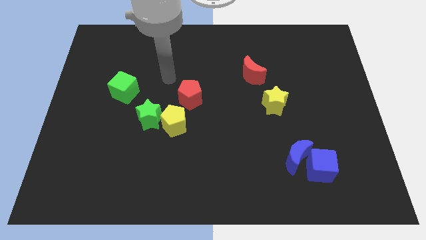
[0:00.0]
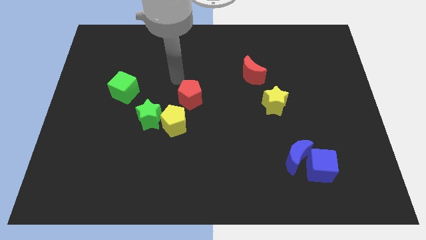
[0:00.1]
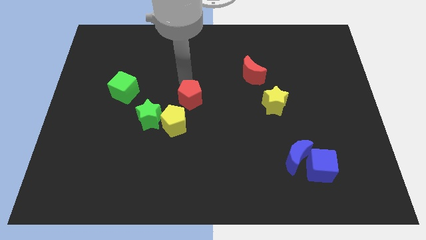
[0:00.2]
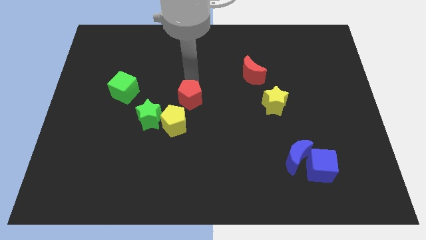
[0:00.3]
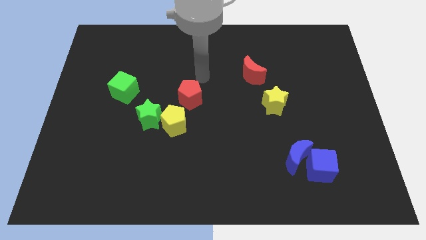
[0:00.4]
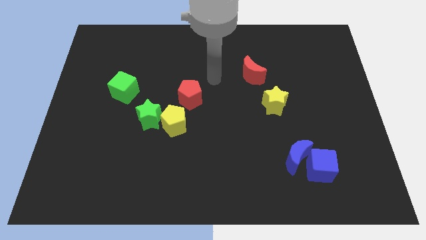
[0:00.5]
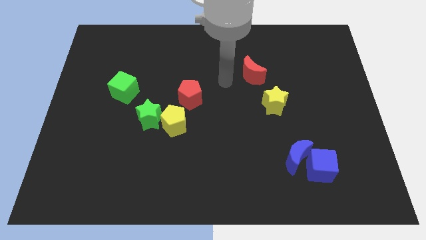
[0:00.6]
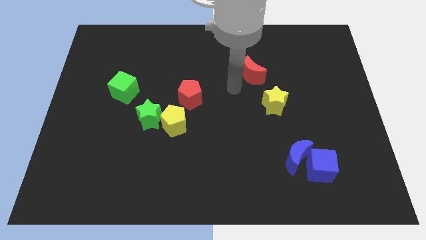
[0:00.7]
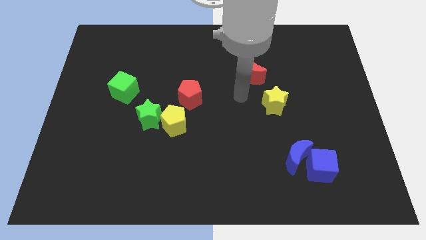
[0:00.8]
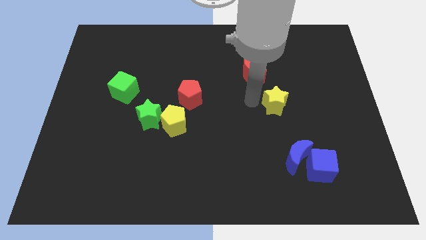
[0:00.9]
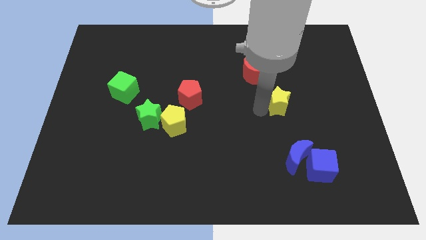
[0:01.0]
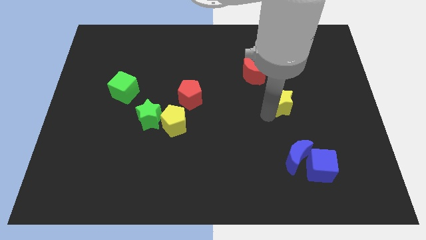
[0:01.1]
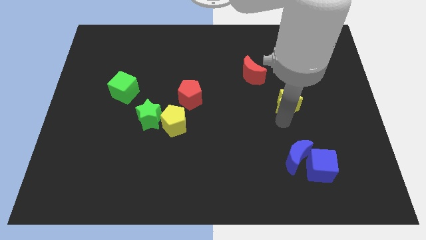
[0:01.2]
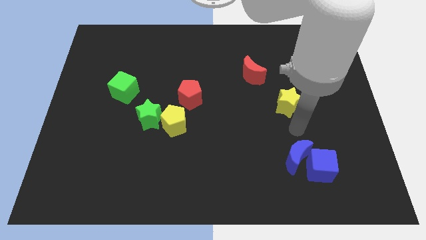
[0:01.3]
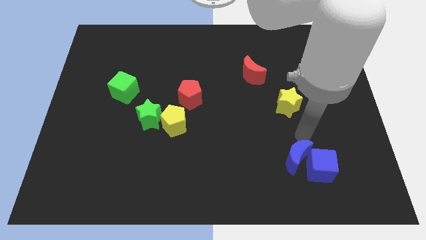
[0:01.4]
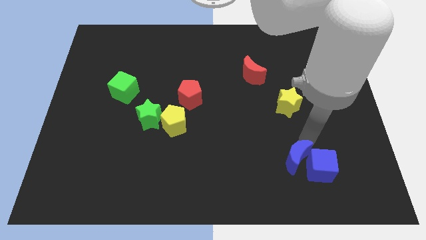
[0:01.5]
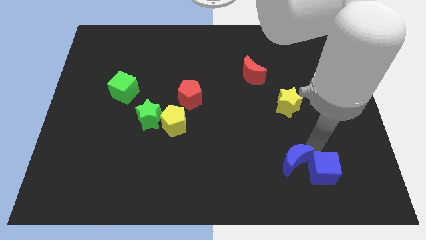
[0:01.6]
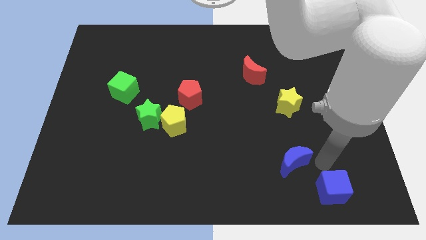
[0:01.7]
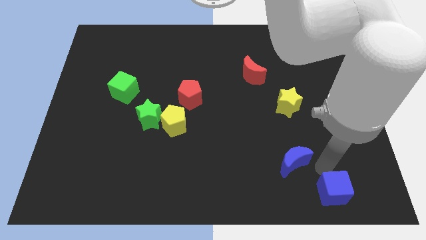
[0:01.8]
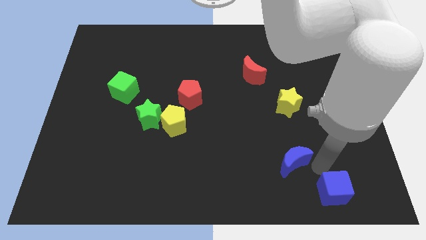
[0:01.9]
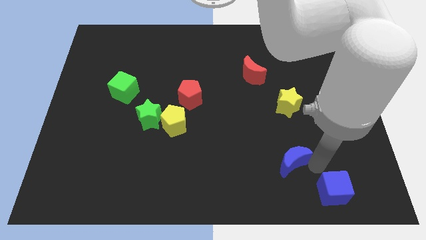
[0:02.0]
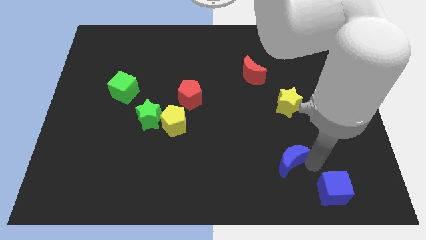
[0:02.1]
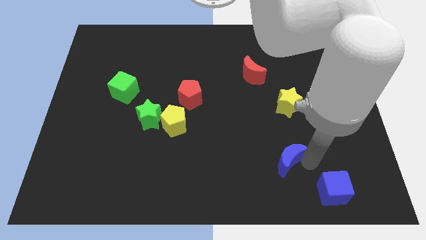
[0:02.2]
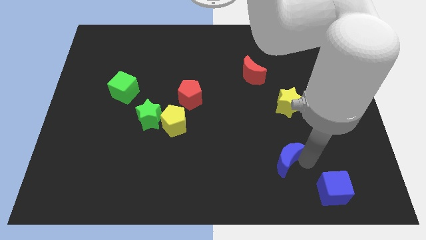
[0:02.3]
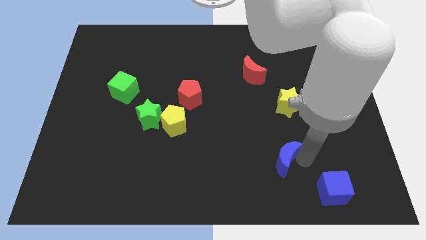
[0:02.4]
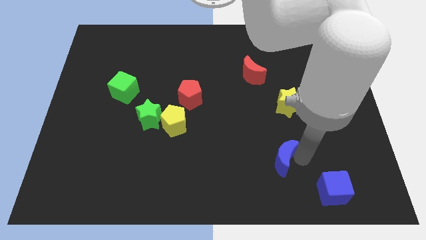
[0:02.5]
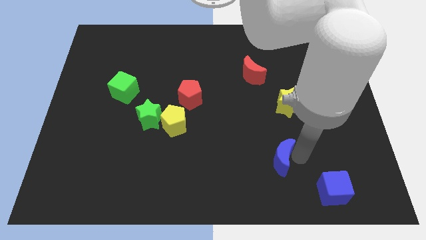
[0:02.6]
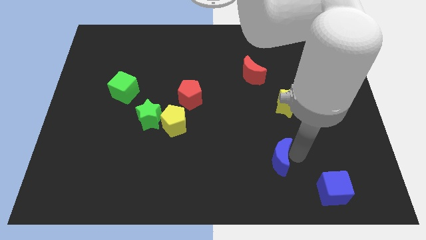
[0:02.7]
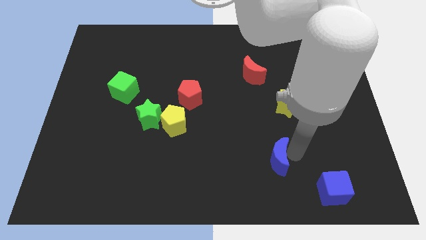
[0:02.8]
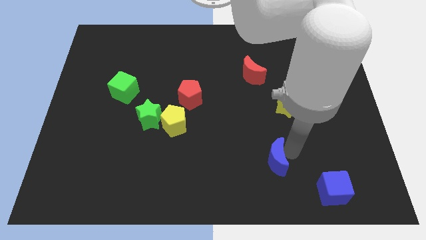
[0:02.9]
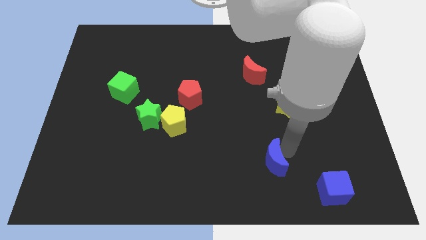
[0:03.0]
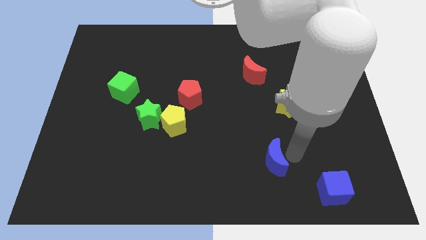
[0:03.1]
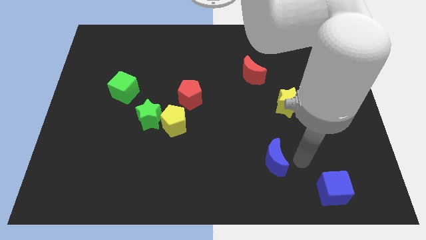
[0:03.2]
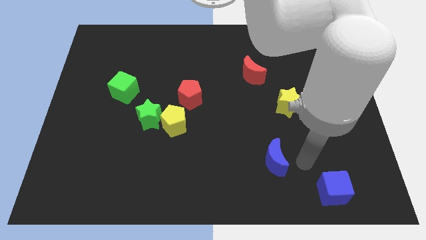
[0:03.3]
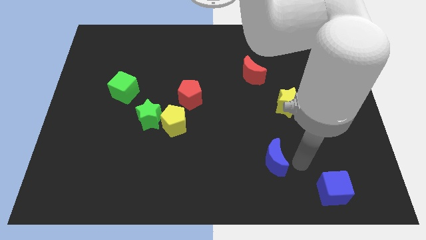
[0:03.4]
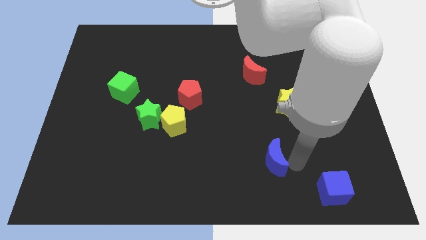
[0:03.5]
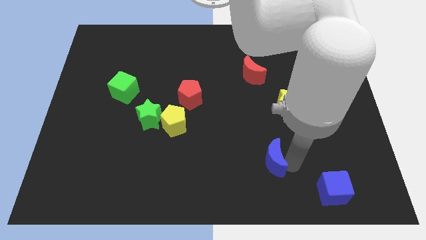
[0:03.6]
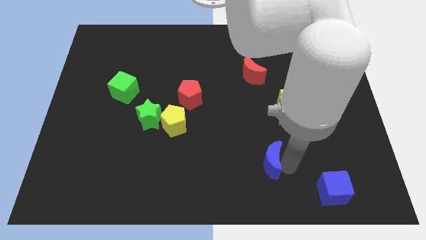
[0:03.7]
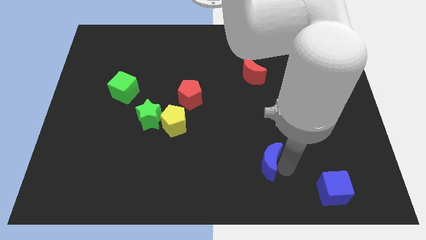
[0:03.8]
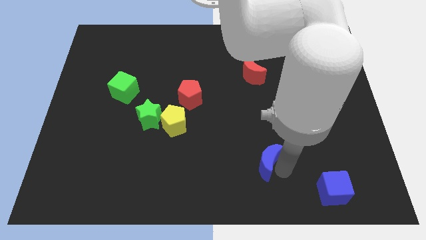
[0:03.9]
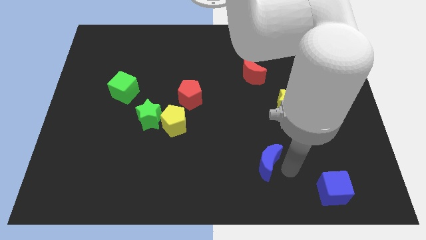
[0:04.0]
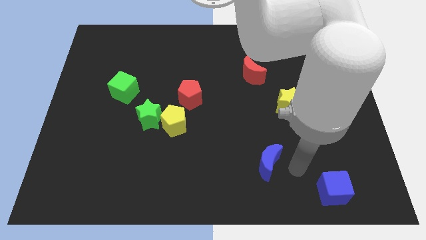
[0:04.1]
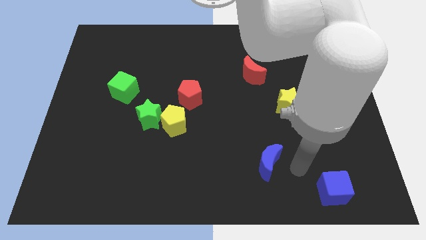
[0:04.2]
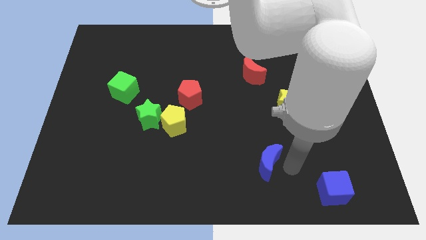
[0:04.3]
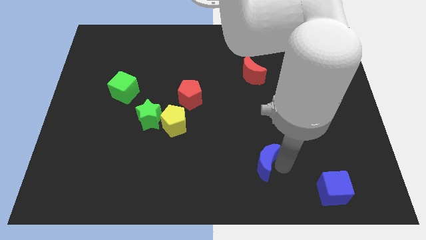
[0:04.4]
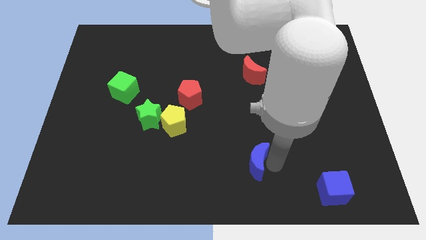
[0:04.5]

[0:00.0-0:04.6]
slide the blue moon a bit to the left

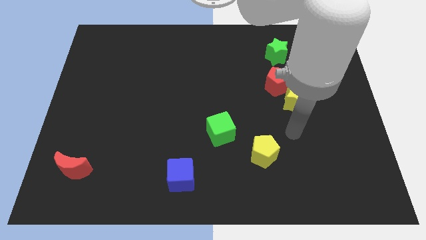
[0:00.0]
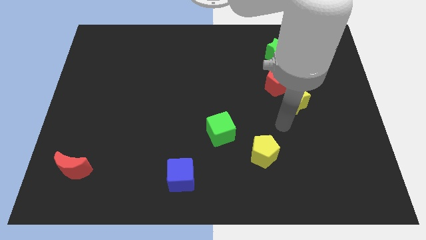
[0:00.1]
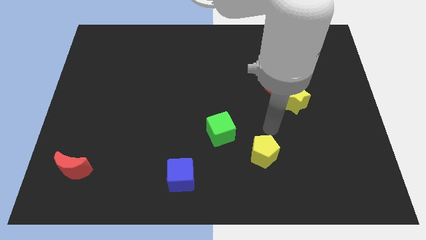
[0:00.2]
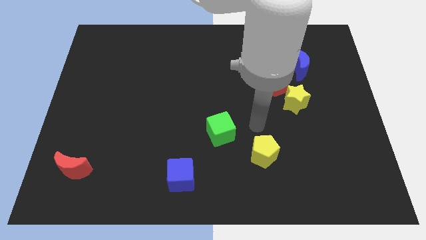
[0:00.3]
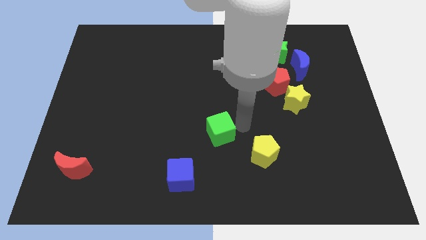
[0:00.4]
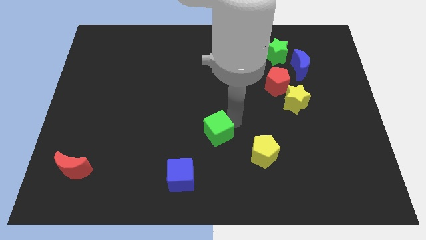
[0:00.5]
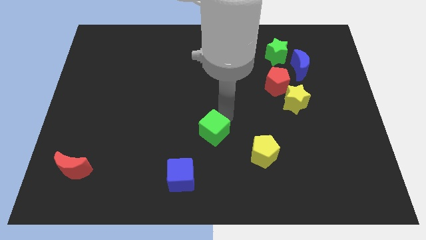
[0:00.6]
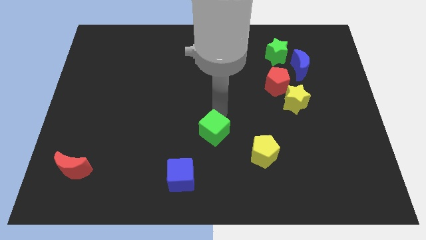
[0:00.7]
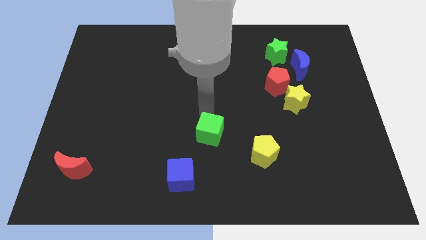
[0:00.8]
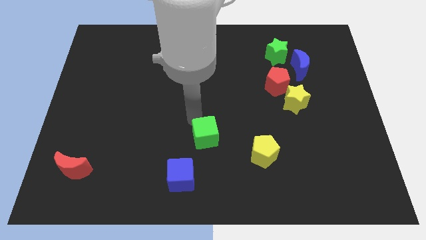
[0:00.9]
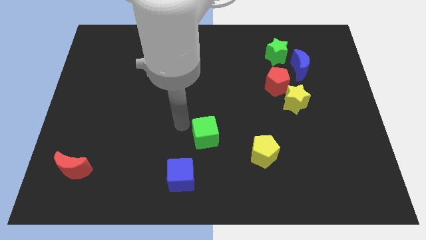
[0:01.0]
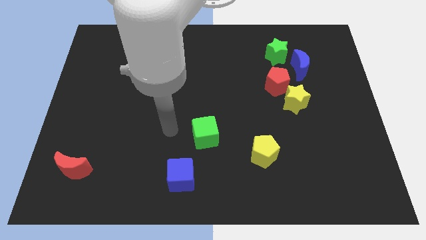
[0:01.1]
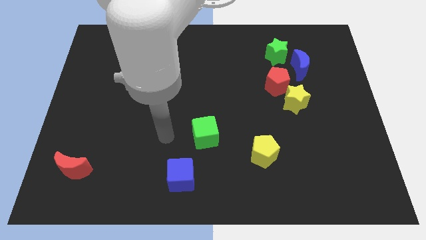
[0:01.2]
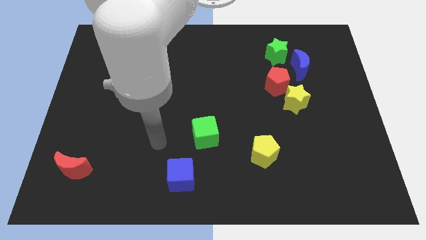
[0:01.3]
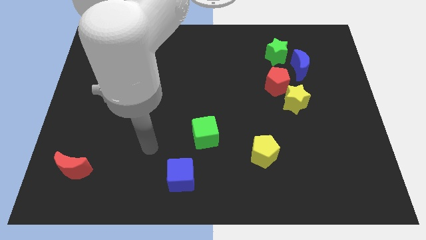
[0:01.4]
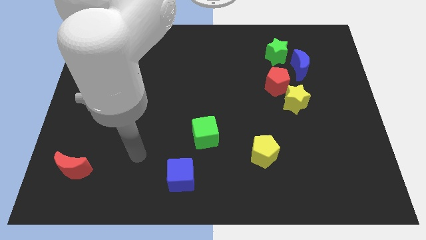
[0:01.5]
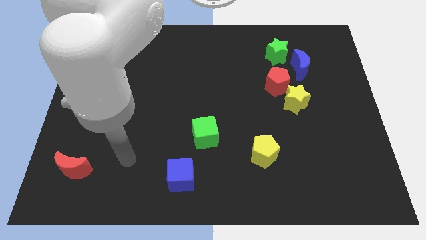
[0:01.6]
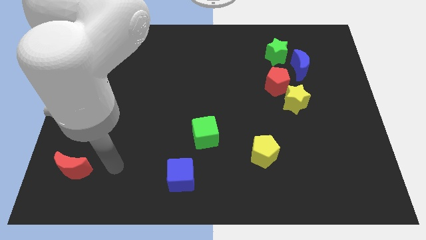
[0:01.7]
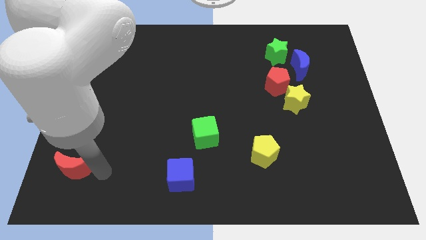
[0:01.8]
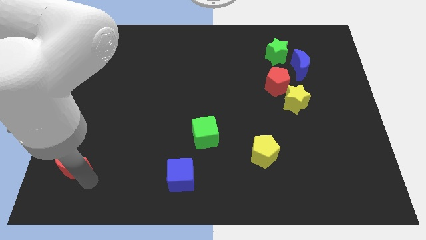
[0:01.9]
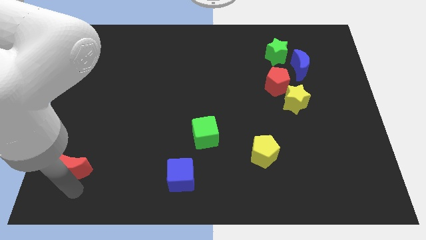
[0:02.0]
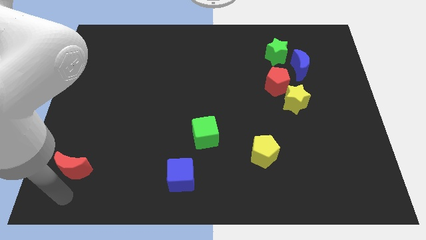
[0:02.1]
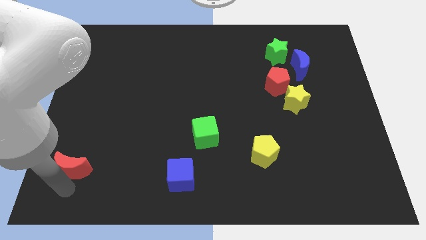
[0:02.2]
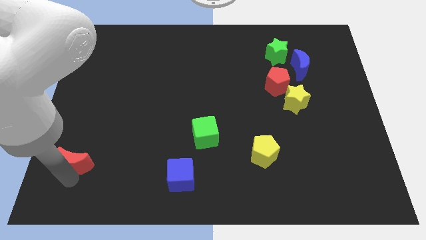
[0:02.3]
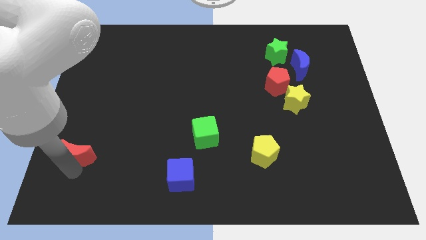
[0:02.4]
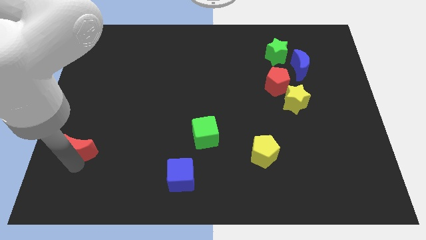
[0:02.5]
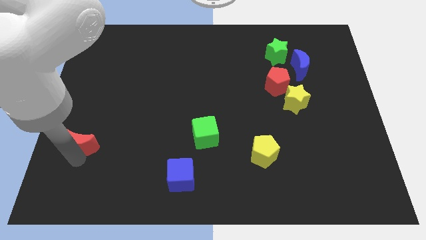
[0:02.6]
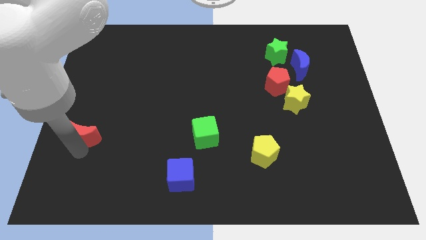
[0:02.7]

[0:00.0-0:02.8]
slightly move the red moon up

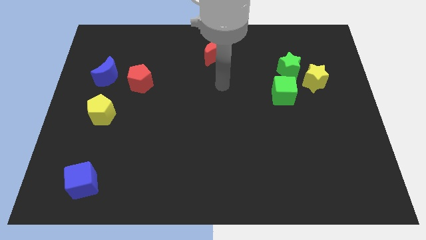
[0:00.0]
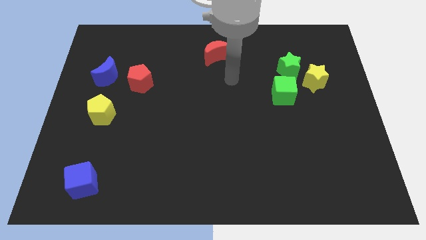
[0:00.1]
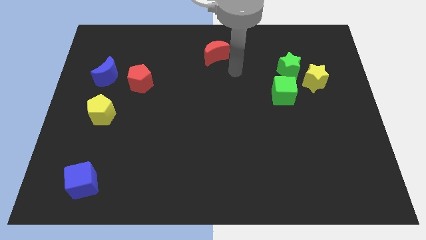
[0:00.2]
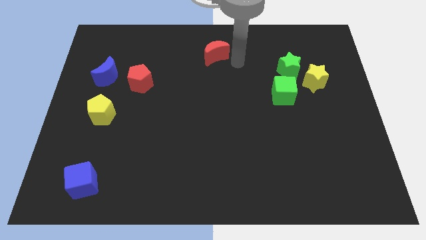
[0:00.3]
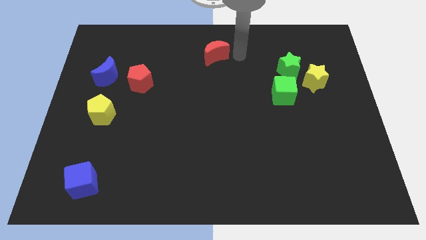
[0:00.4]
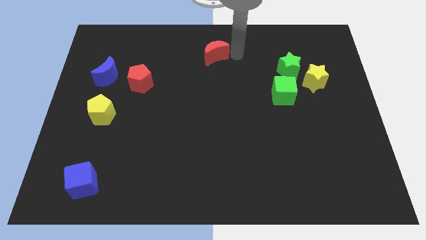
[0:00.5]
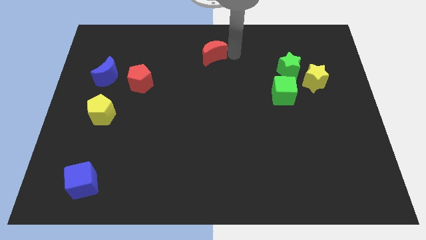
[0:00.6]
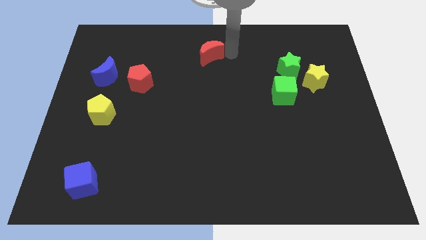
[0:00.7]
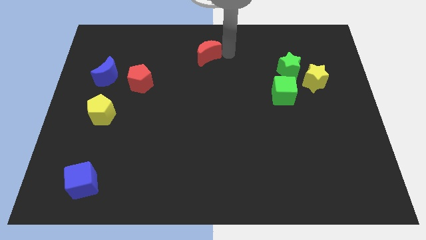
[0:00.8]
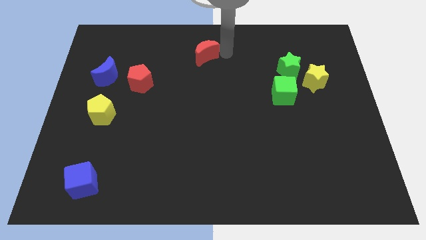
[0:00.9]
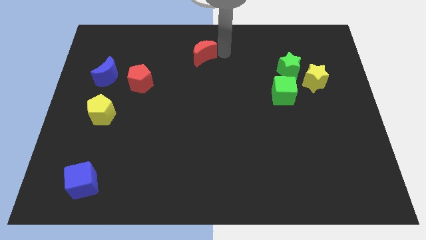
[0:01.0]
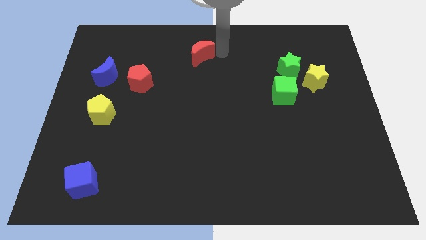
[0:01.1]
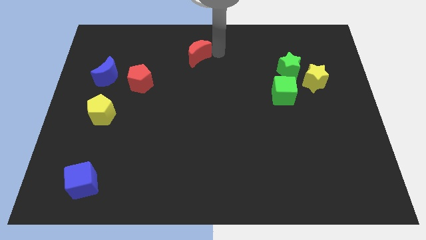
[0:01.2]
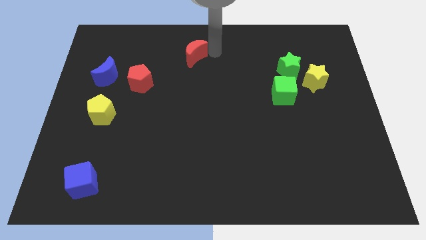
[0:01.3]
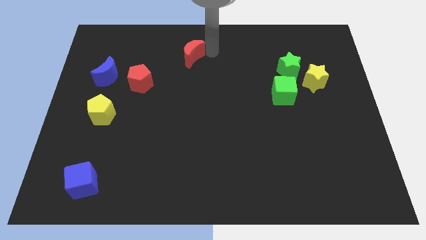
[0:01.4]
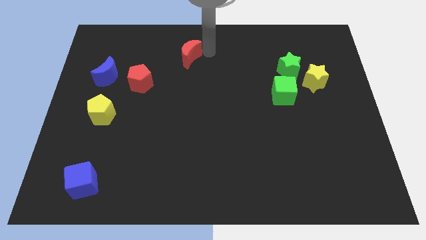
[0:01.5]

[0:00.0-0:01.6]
slide the red moon to the left a bit
